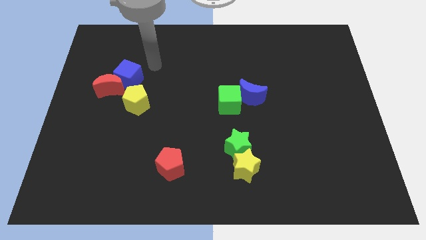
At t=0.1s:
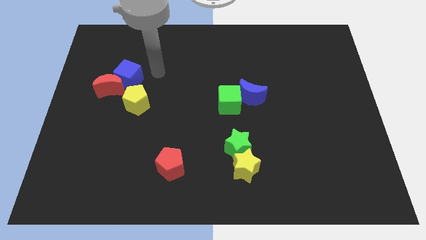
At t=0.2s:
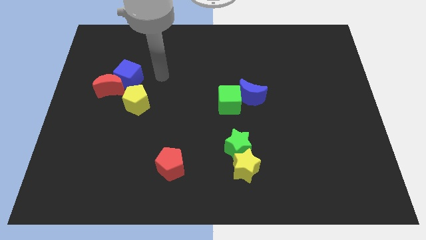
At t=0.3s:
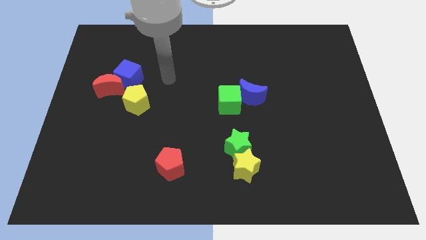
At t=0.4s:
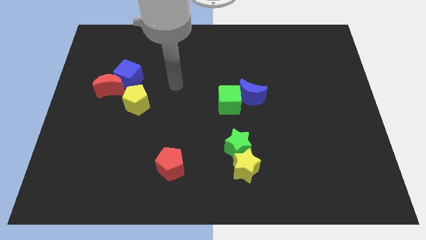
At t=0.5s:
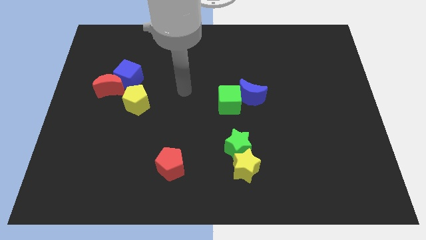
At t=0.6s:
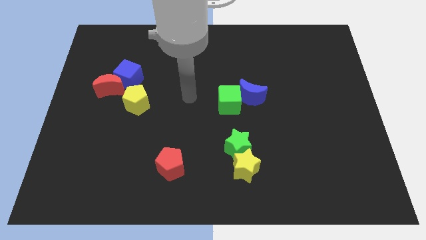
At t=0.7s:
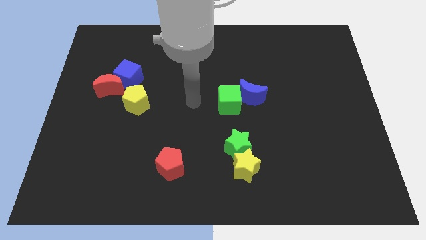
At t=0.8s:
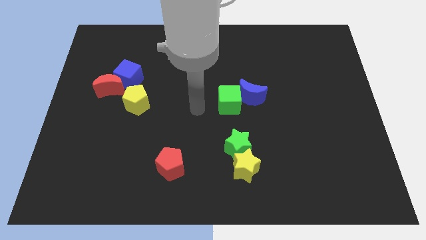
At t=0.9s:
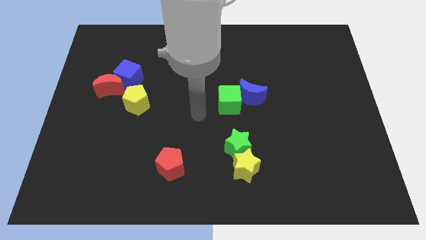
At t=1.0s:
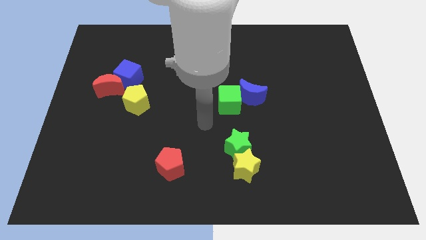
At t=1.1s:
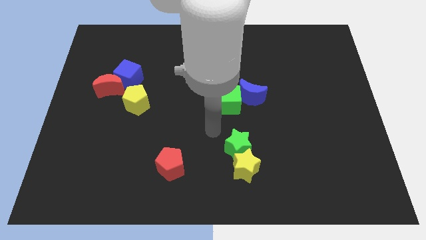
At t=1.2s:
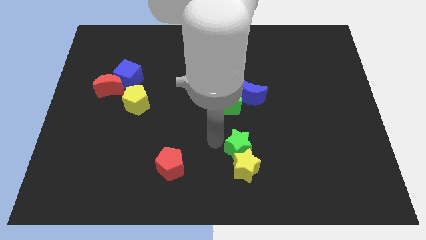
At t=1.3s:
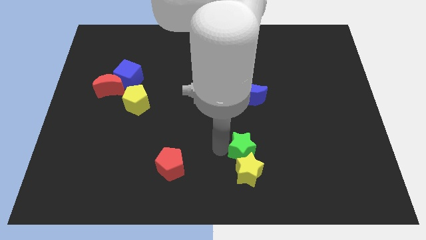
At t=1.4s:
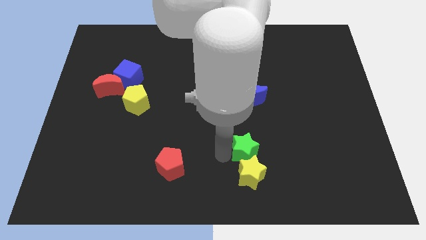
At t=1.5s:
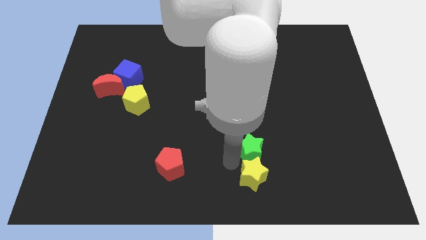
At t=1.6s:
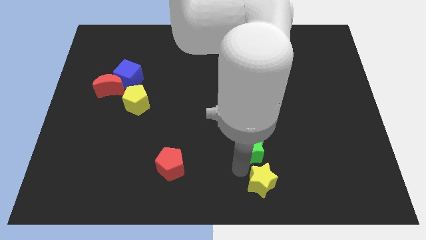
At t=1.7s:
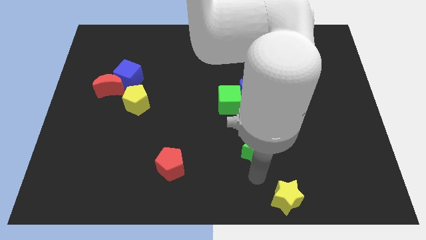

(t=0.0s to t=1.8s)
pull the green star apart from the yellow star

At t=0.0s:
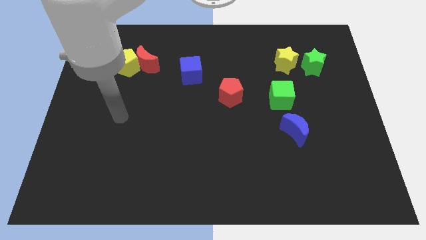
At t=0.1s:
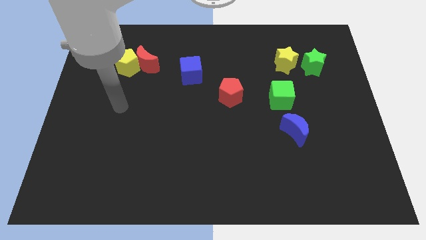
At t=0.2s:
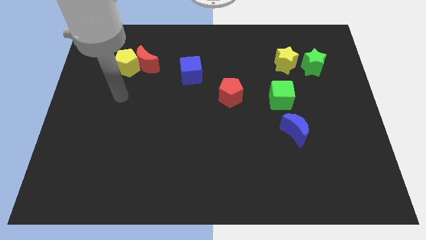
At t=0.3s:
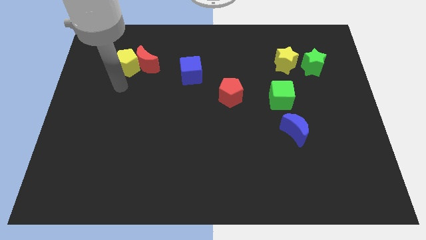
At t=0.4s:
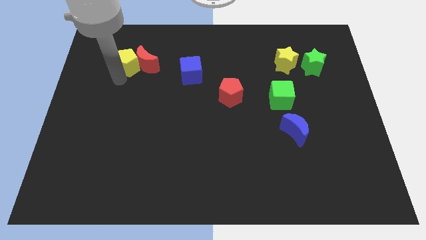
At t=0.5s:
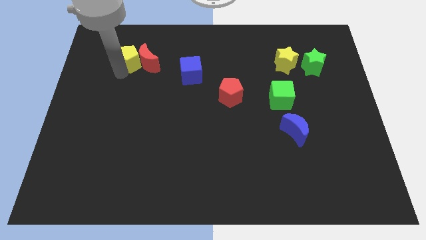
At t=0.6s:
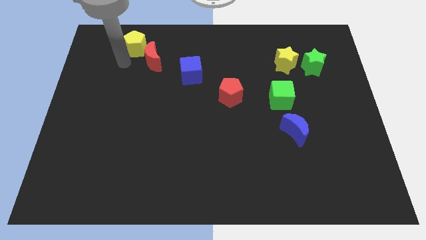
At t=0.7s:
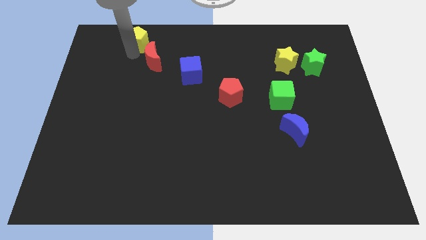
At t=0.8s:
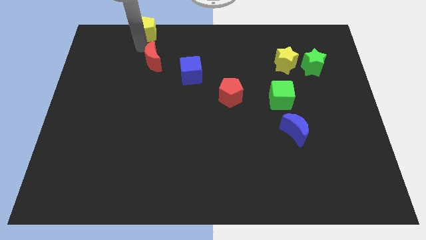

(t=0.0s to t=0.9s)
separate the red moon from the yellow pentagon

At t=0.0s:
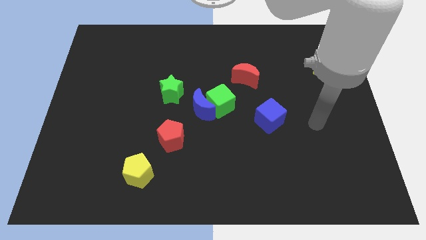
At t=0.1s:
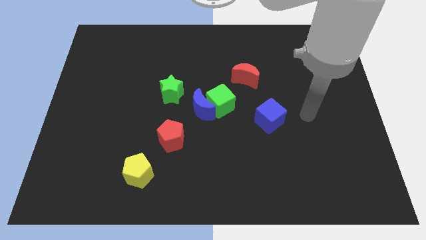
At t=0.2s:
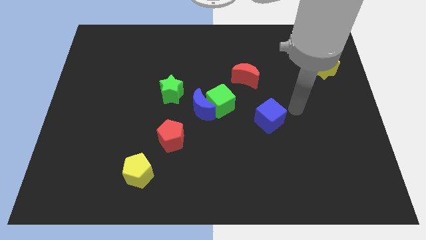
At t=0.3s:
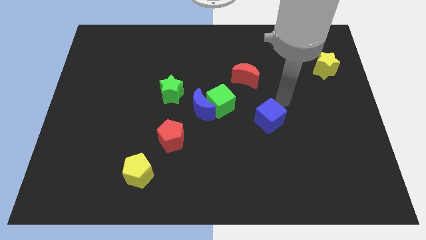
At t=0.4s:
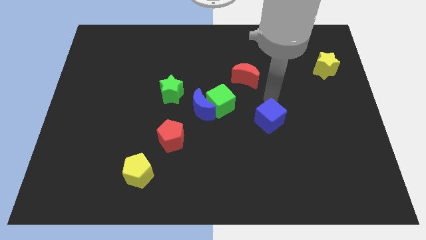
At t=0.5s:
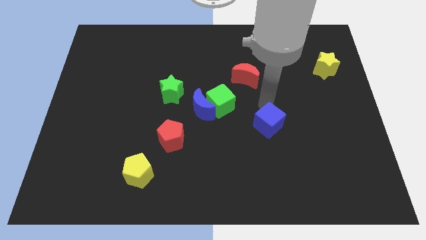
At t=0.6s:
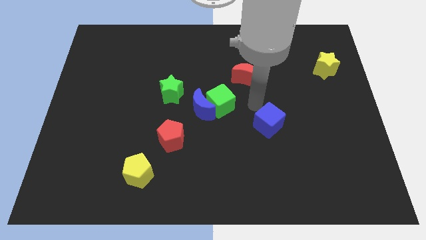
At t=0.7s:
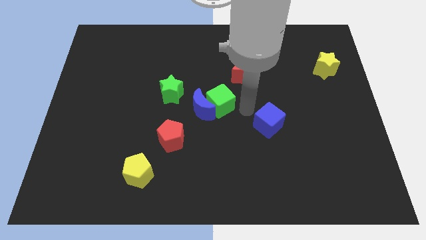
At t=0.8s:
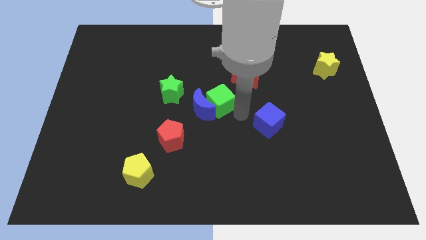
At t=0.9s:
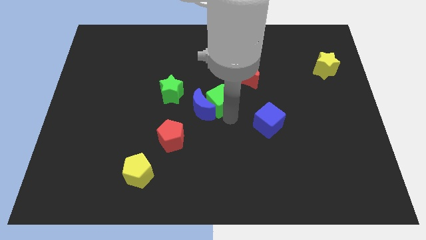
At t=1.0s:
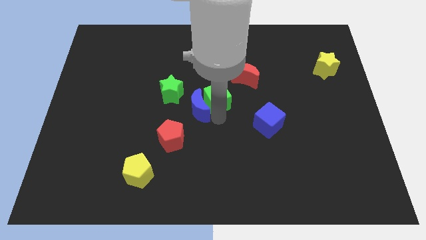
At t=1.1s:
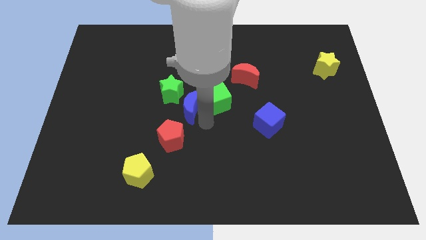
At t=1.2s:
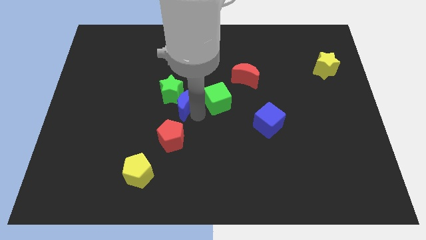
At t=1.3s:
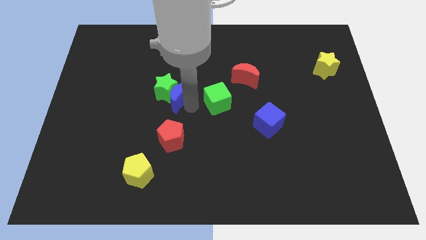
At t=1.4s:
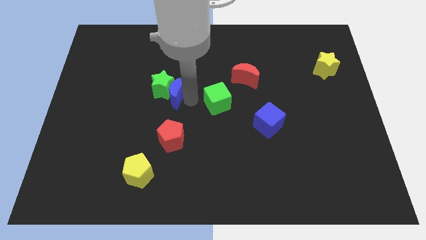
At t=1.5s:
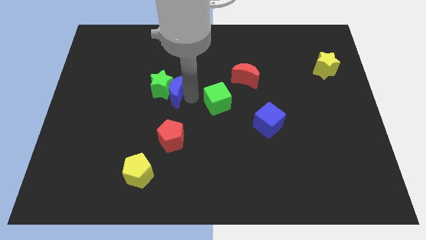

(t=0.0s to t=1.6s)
move the green cube away from the blue moon

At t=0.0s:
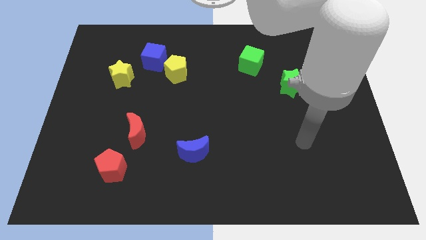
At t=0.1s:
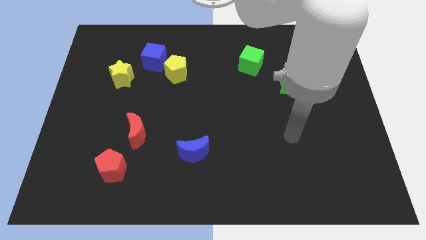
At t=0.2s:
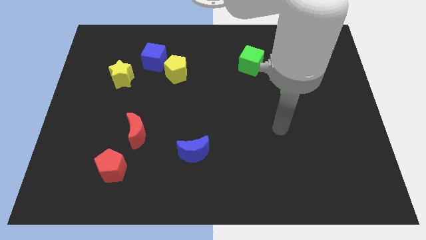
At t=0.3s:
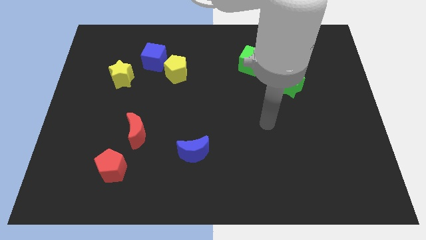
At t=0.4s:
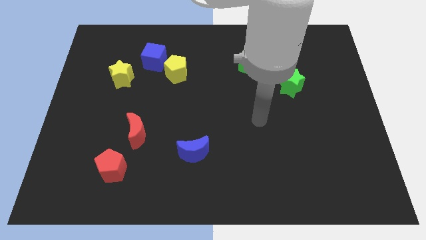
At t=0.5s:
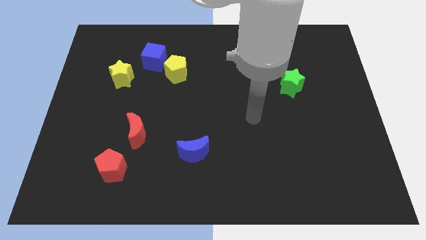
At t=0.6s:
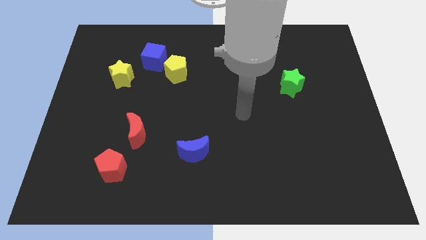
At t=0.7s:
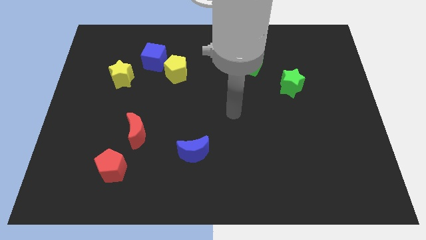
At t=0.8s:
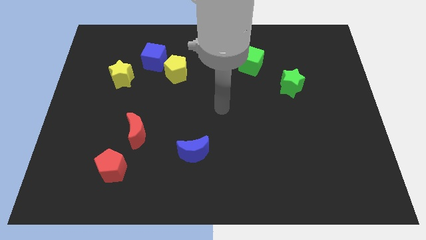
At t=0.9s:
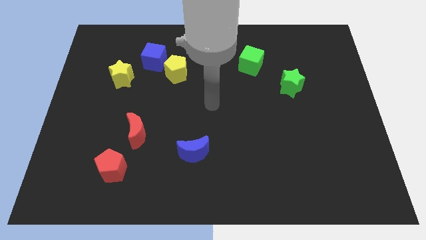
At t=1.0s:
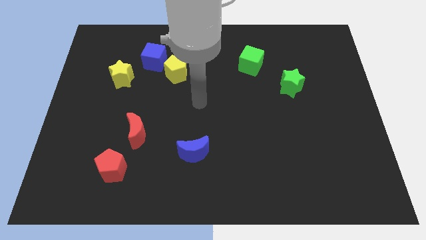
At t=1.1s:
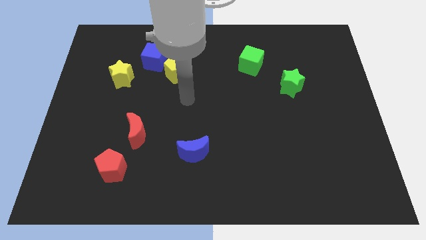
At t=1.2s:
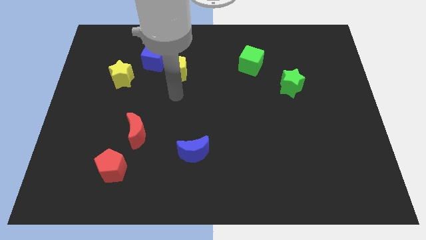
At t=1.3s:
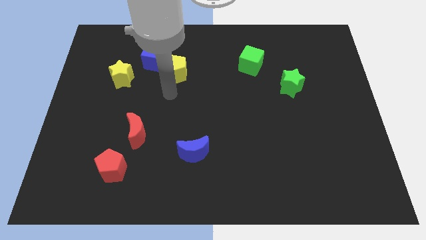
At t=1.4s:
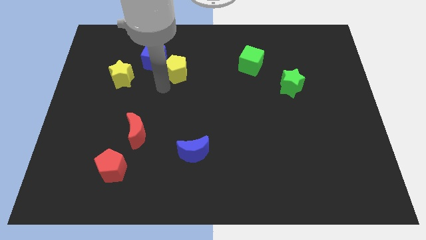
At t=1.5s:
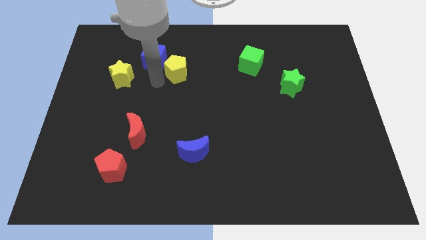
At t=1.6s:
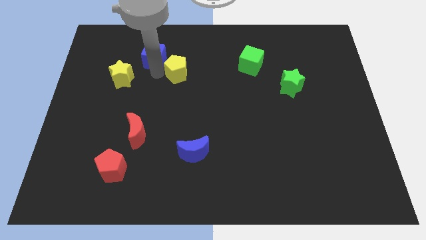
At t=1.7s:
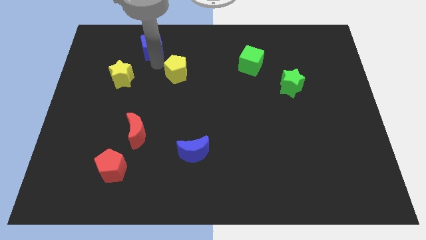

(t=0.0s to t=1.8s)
move the yellow pentagon away from the blue cube

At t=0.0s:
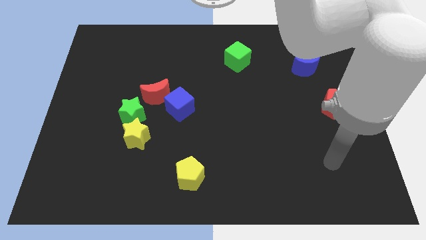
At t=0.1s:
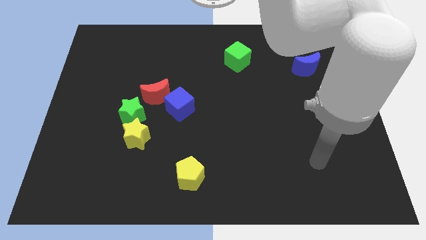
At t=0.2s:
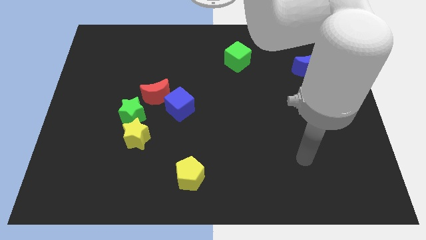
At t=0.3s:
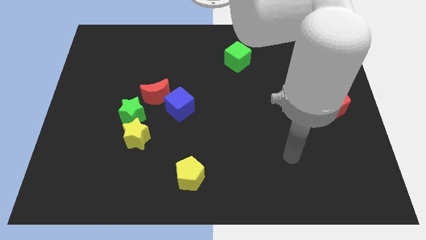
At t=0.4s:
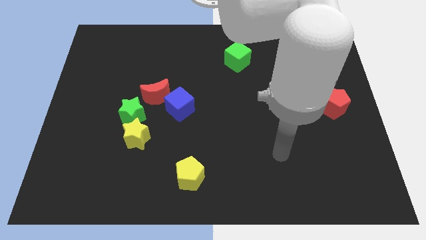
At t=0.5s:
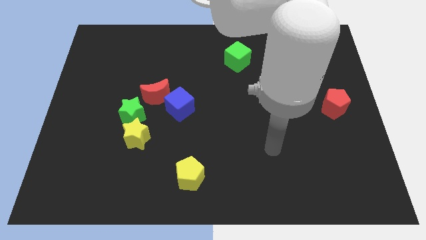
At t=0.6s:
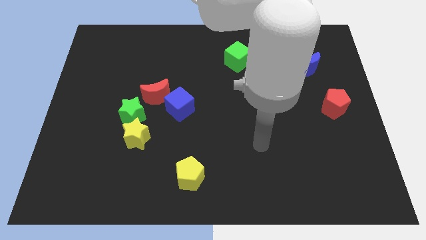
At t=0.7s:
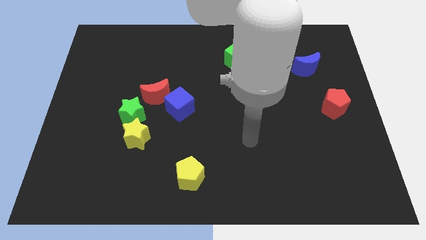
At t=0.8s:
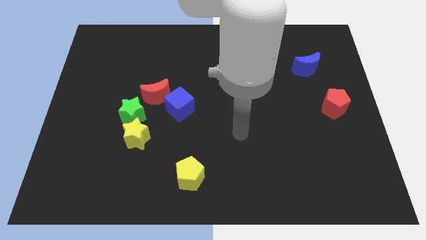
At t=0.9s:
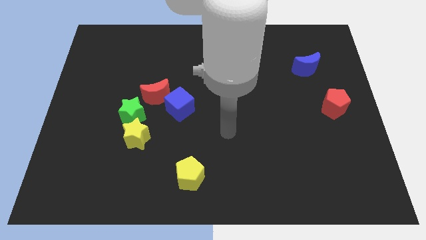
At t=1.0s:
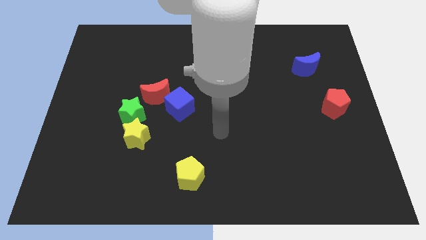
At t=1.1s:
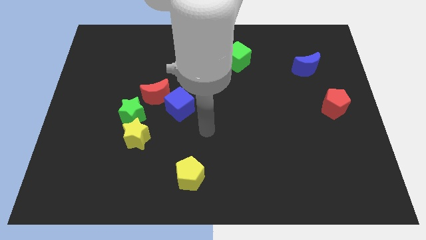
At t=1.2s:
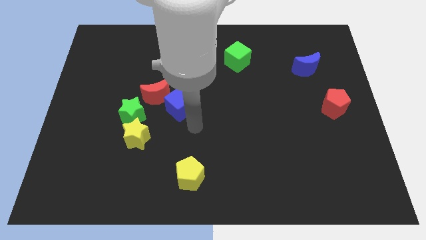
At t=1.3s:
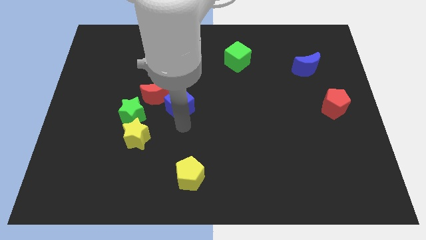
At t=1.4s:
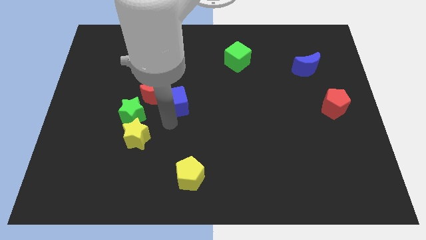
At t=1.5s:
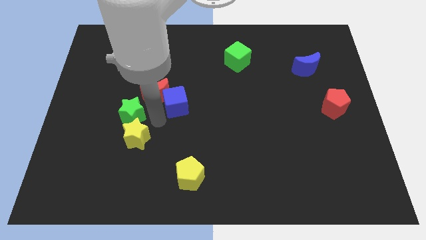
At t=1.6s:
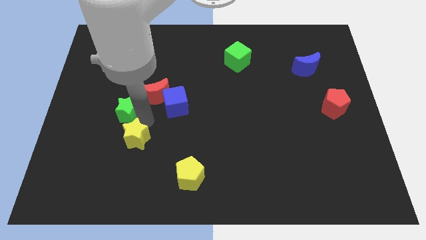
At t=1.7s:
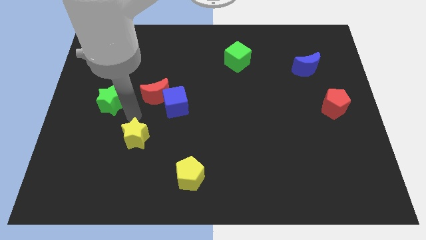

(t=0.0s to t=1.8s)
move the yellow star away from the green star

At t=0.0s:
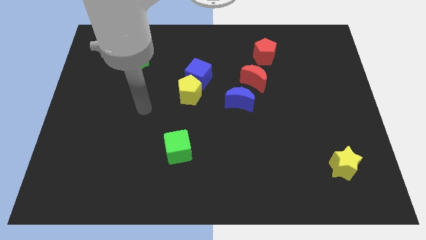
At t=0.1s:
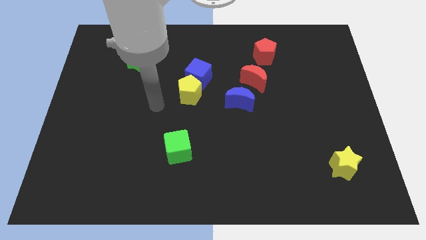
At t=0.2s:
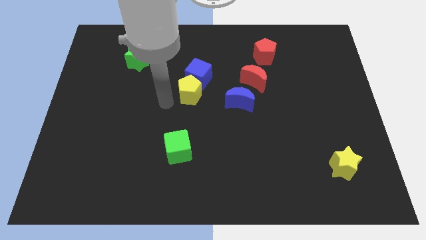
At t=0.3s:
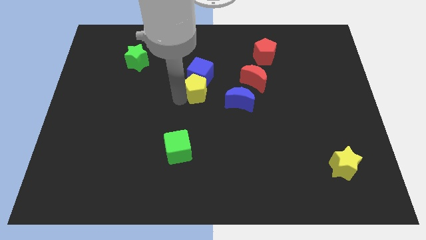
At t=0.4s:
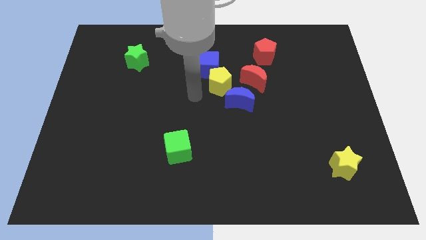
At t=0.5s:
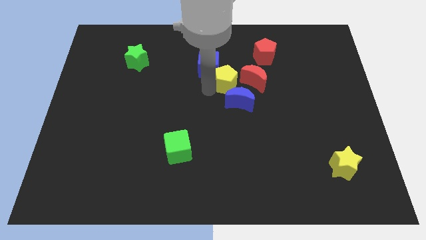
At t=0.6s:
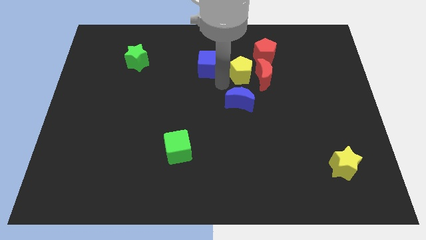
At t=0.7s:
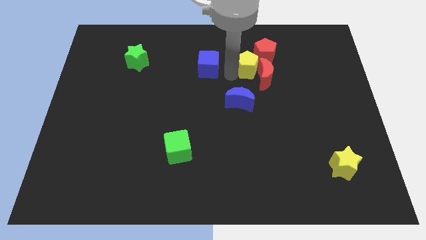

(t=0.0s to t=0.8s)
pull the blue cube apart from the yellow pentagon

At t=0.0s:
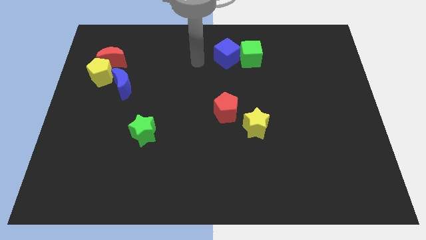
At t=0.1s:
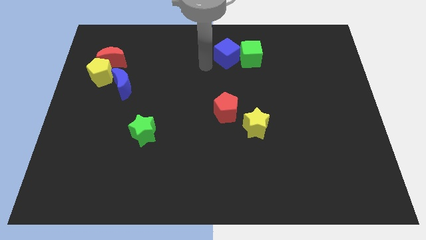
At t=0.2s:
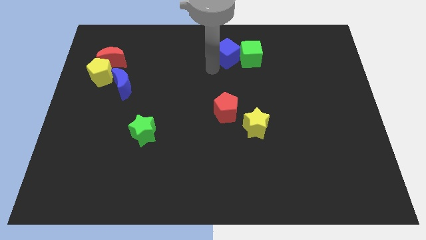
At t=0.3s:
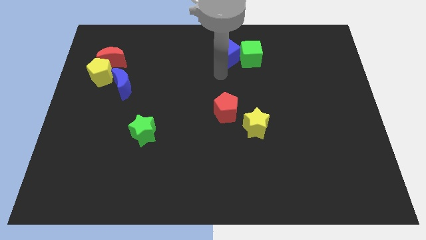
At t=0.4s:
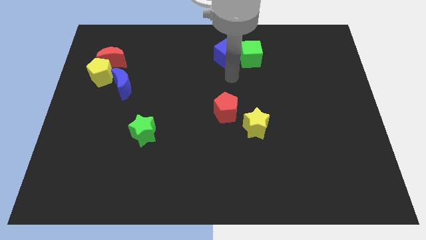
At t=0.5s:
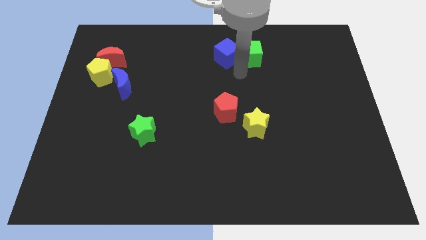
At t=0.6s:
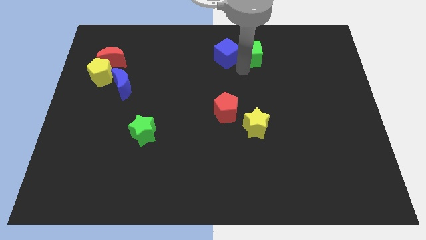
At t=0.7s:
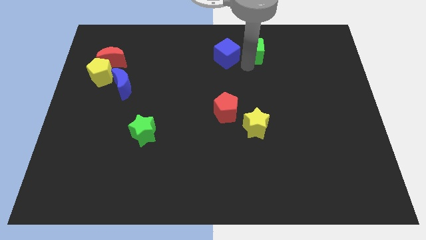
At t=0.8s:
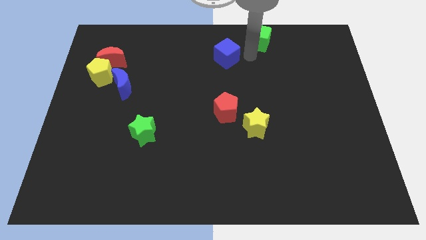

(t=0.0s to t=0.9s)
move the blue cube away from the green cube
